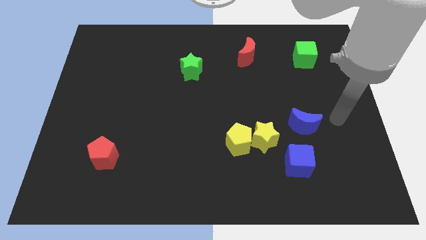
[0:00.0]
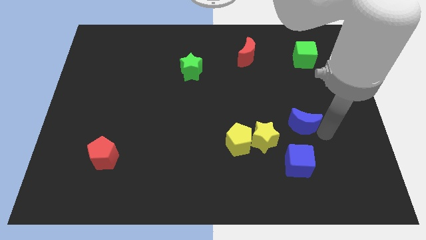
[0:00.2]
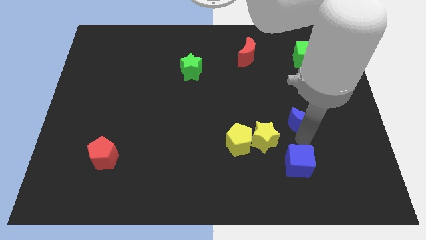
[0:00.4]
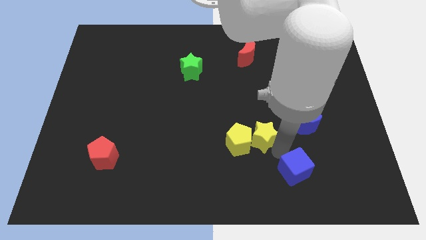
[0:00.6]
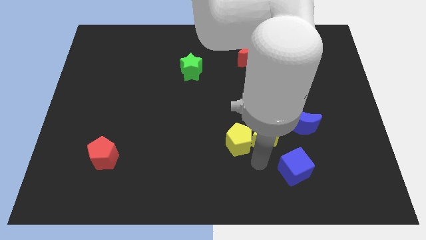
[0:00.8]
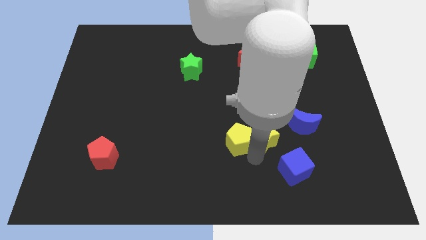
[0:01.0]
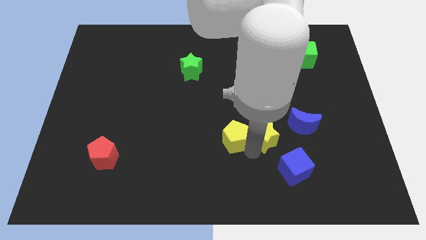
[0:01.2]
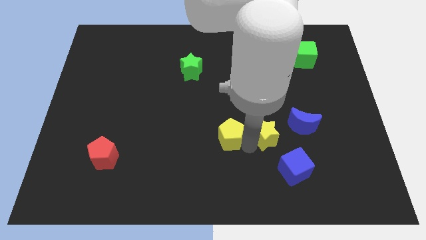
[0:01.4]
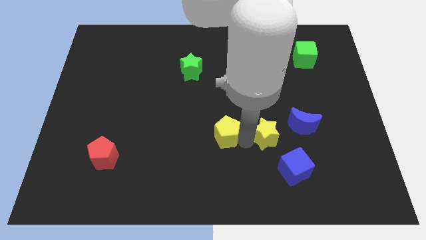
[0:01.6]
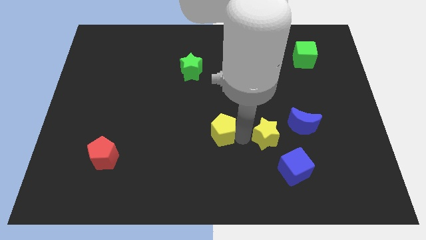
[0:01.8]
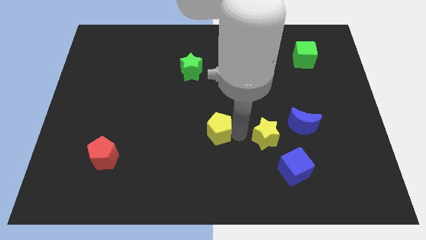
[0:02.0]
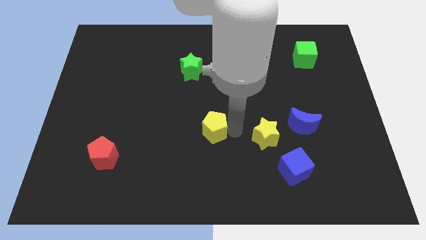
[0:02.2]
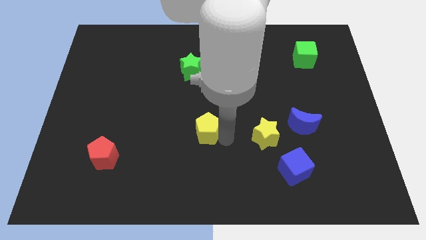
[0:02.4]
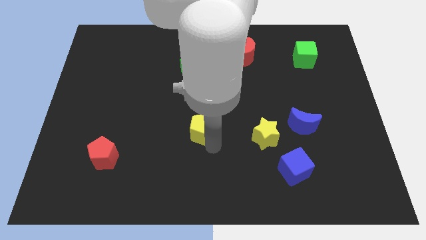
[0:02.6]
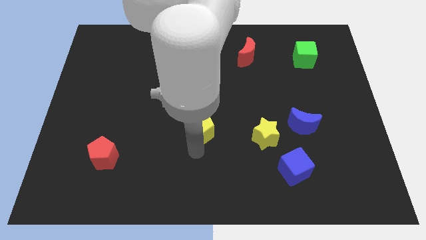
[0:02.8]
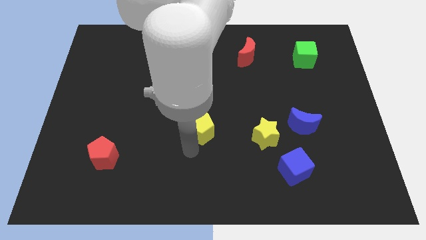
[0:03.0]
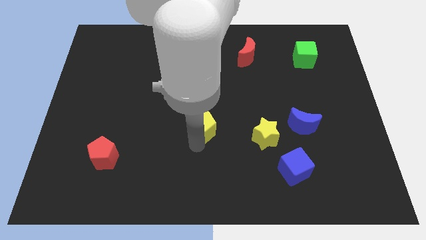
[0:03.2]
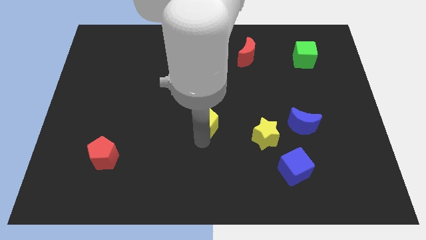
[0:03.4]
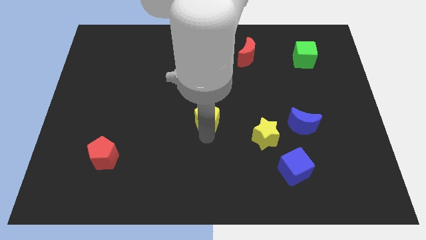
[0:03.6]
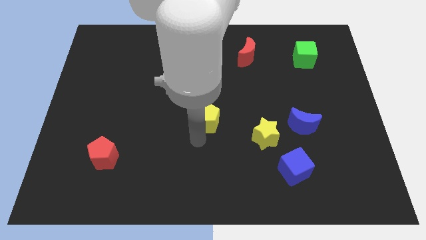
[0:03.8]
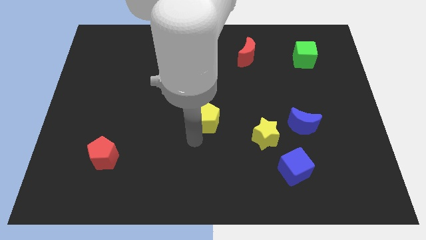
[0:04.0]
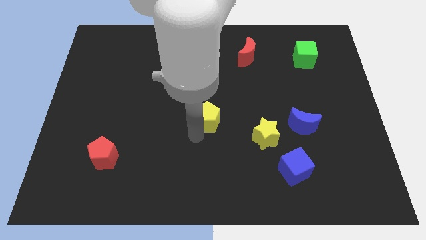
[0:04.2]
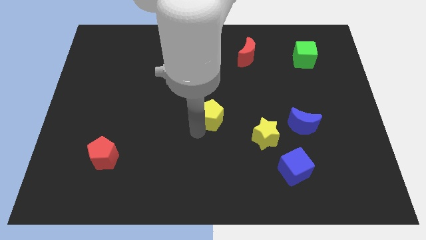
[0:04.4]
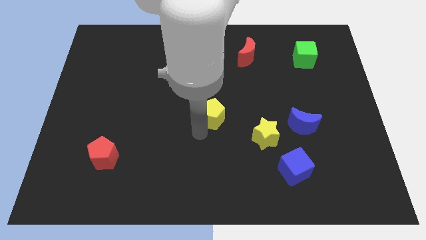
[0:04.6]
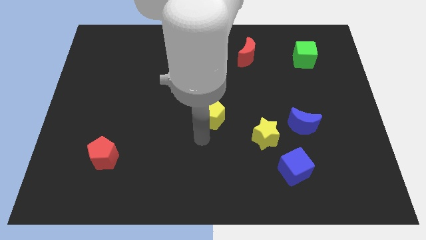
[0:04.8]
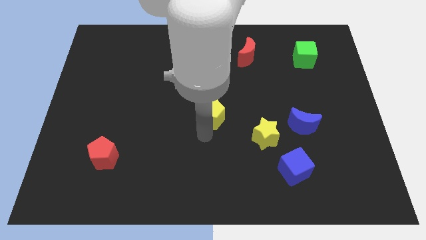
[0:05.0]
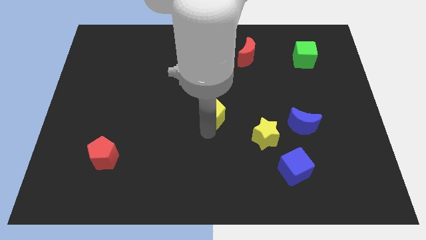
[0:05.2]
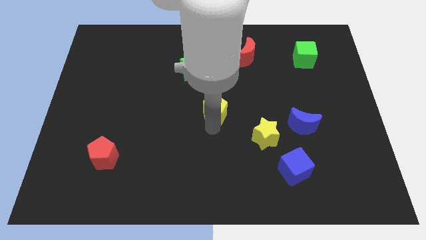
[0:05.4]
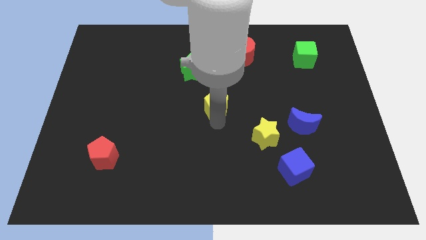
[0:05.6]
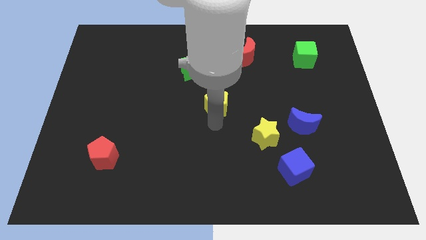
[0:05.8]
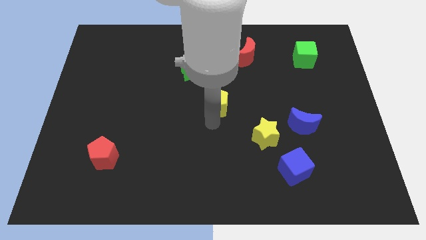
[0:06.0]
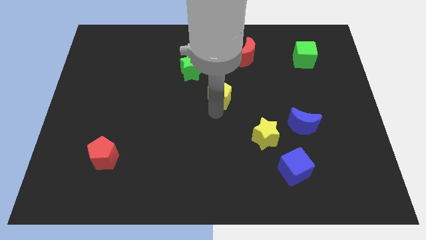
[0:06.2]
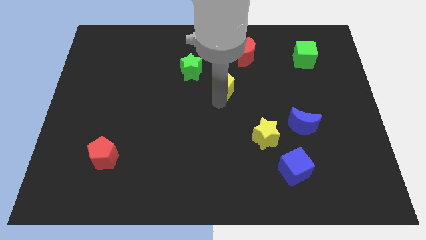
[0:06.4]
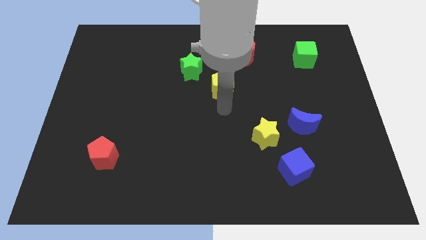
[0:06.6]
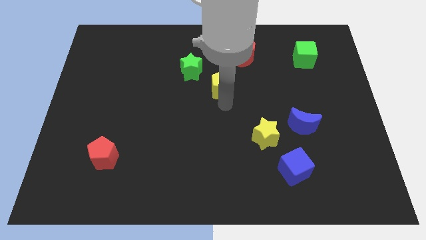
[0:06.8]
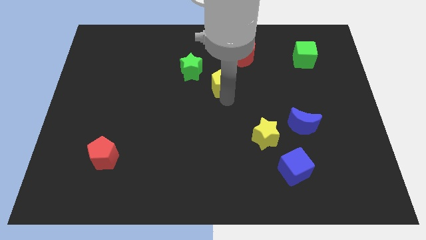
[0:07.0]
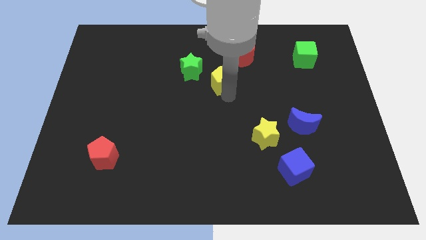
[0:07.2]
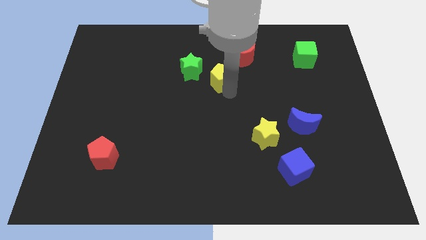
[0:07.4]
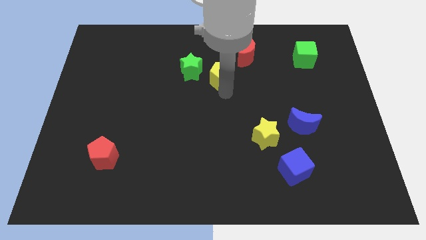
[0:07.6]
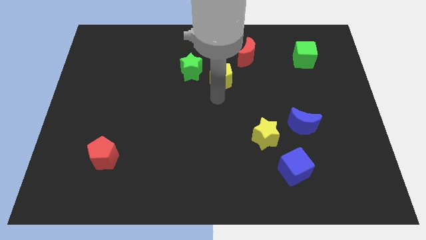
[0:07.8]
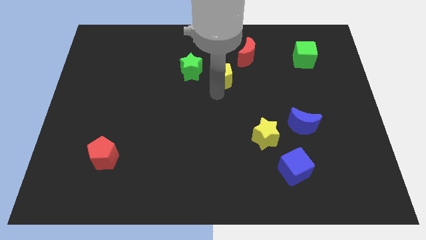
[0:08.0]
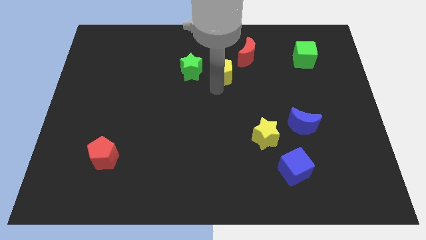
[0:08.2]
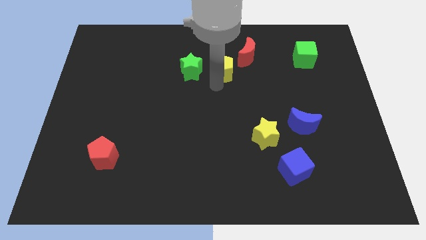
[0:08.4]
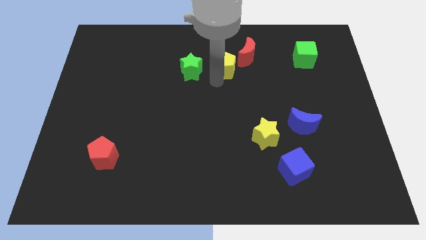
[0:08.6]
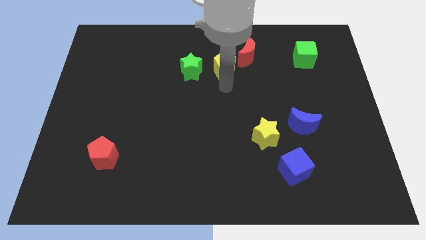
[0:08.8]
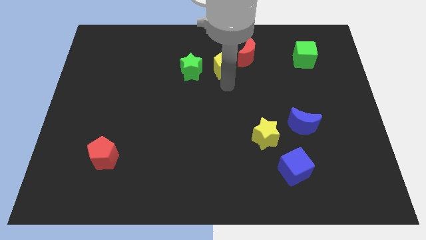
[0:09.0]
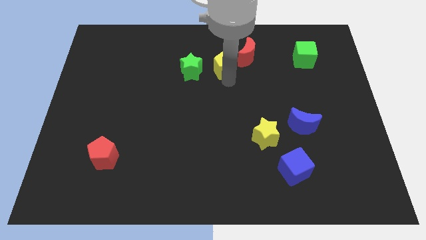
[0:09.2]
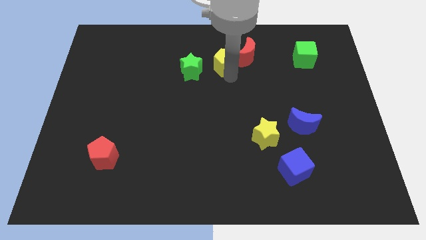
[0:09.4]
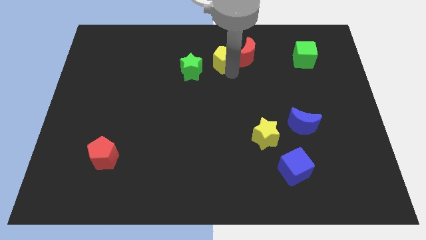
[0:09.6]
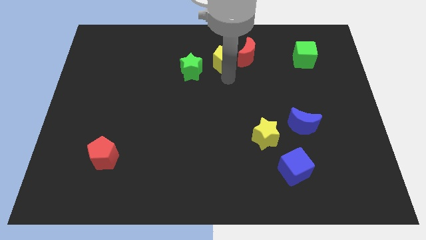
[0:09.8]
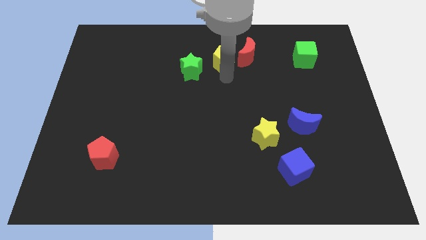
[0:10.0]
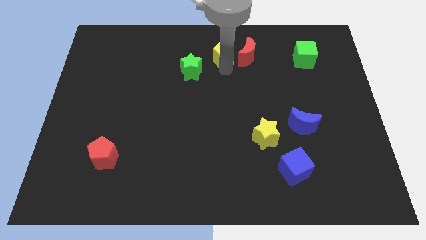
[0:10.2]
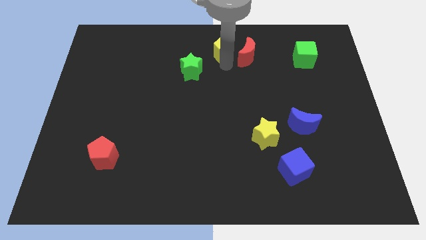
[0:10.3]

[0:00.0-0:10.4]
slide the yellow pentagon to the towards your base
